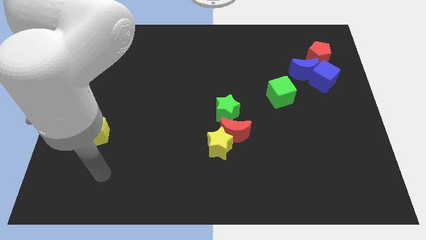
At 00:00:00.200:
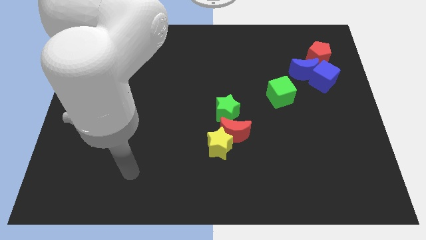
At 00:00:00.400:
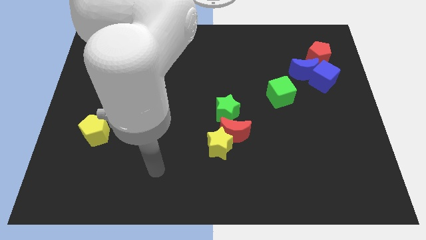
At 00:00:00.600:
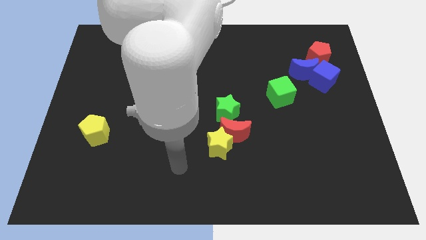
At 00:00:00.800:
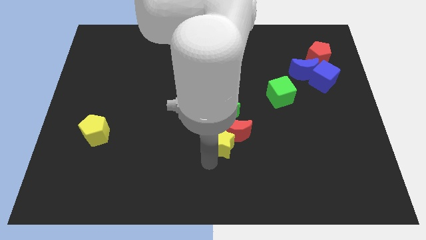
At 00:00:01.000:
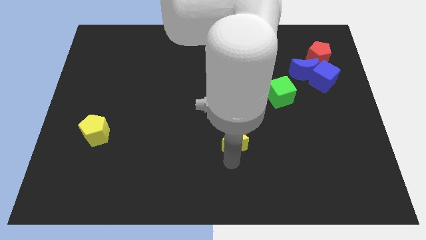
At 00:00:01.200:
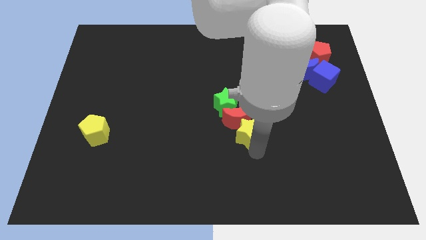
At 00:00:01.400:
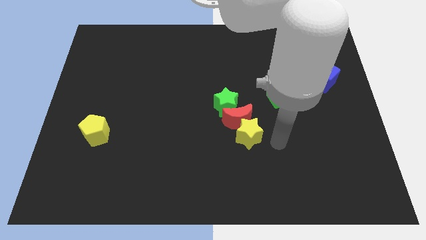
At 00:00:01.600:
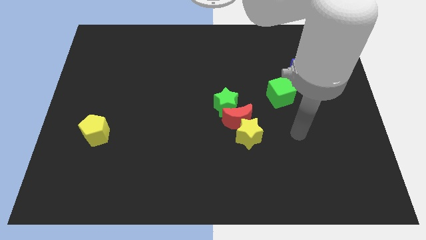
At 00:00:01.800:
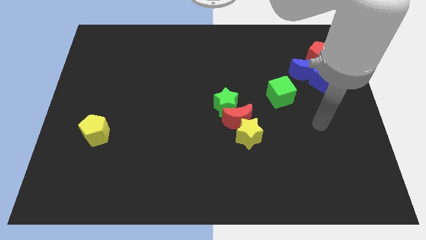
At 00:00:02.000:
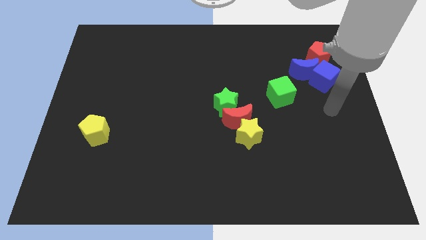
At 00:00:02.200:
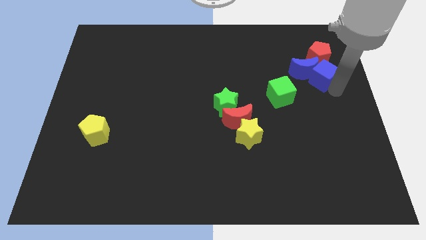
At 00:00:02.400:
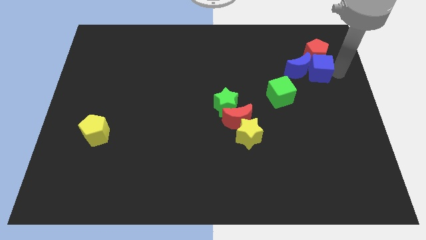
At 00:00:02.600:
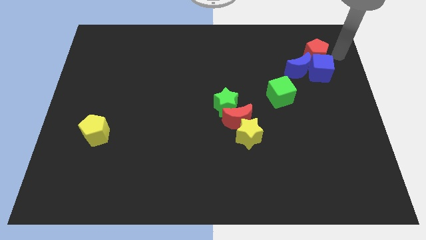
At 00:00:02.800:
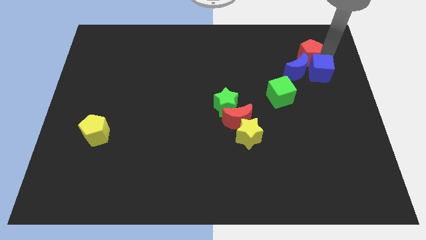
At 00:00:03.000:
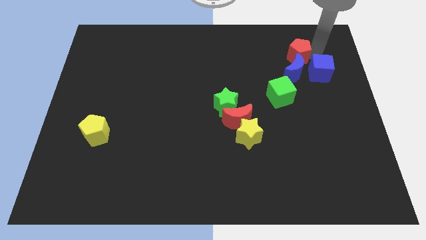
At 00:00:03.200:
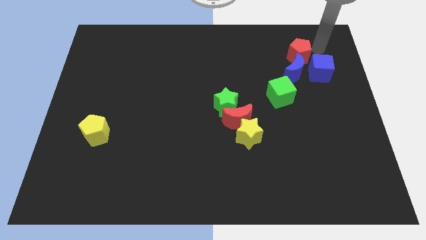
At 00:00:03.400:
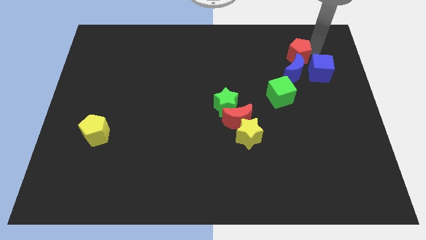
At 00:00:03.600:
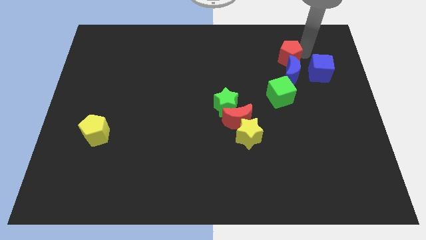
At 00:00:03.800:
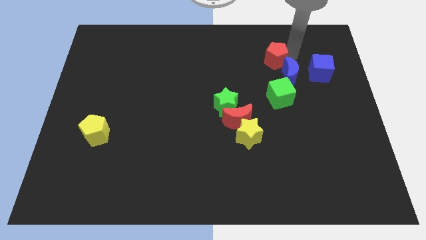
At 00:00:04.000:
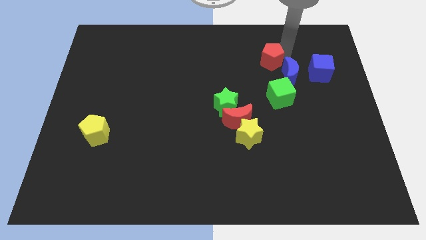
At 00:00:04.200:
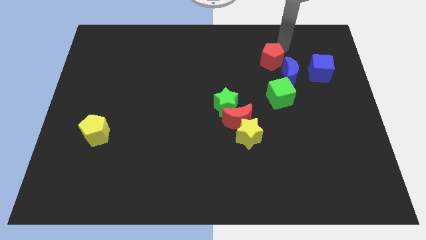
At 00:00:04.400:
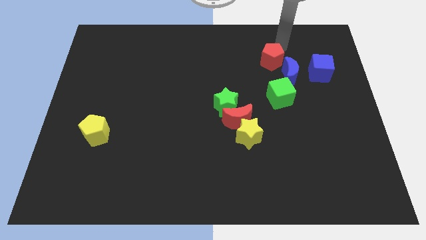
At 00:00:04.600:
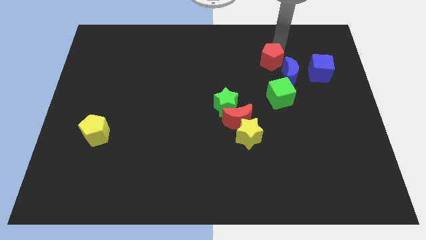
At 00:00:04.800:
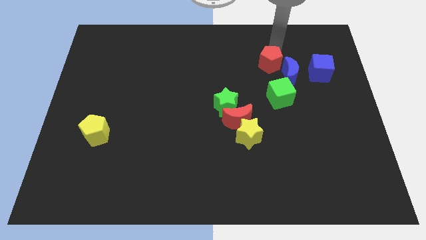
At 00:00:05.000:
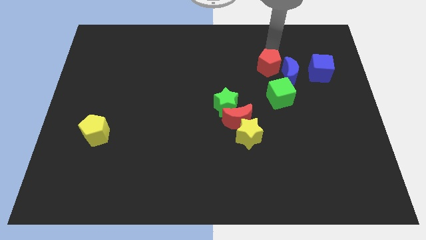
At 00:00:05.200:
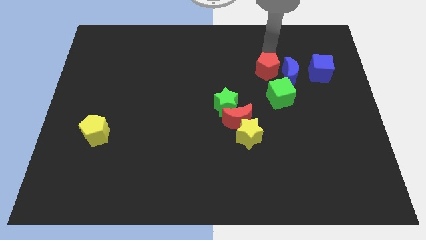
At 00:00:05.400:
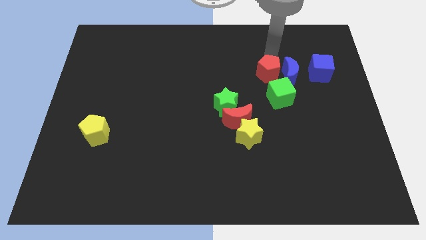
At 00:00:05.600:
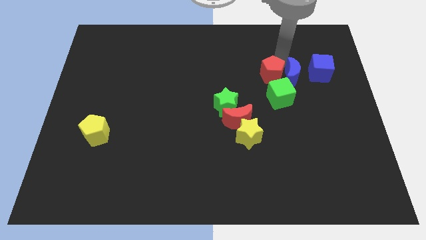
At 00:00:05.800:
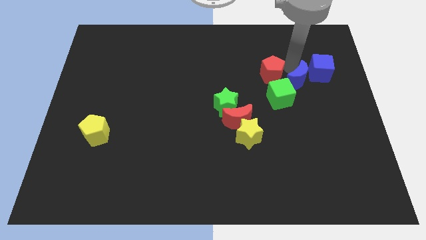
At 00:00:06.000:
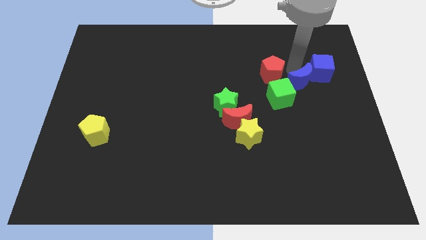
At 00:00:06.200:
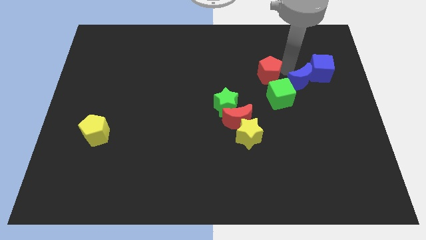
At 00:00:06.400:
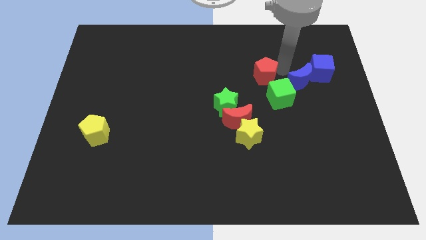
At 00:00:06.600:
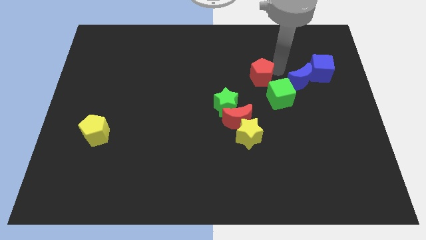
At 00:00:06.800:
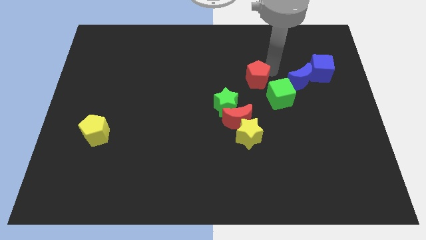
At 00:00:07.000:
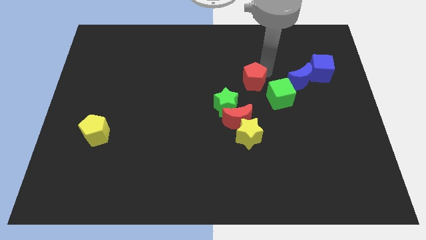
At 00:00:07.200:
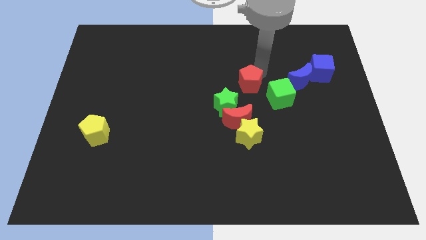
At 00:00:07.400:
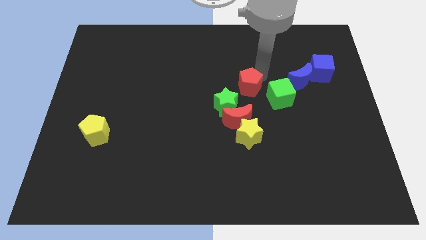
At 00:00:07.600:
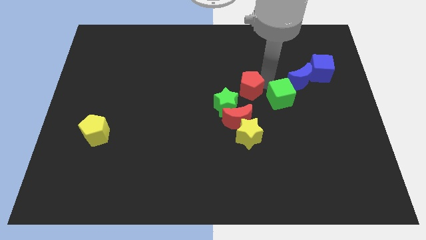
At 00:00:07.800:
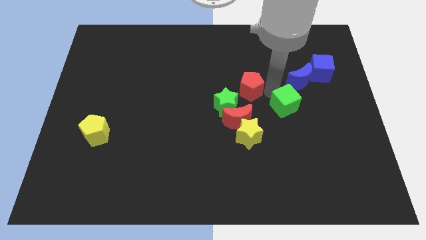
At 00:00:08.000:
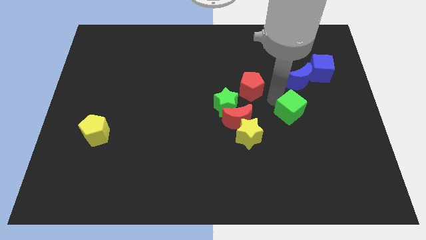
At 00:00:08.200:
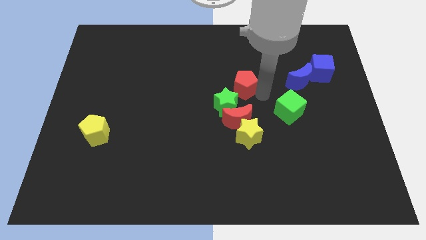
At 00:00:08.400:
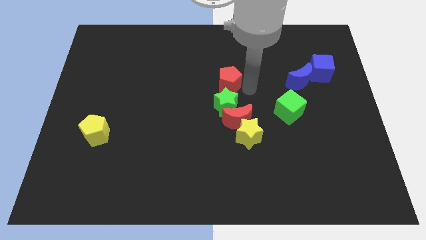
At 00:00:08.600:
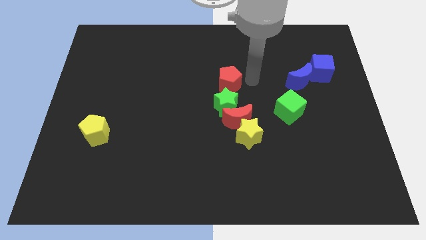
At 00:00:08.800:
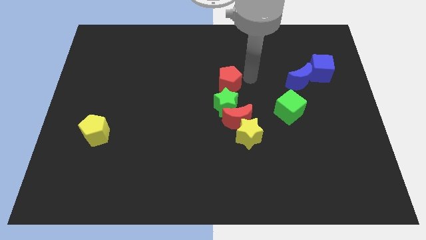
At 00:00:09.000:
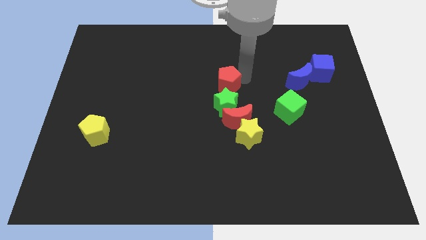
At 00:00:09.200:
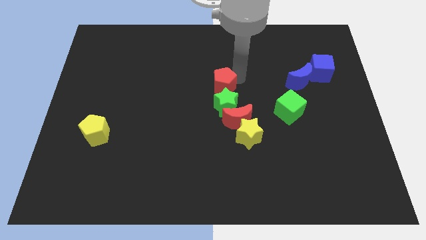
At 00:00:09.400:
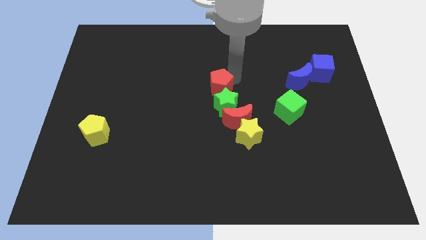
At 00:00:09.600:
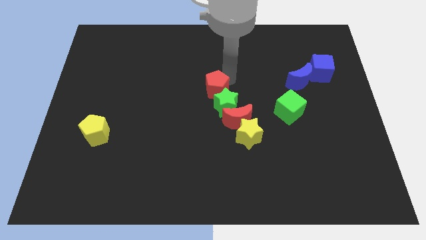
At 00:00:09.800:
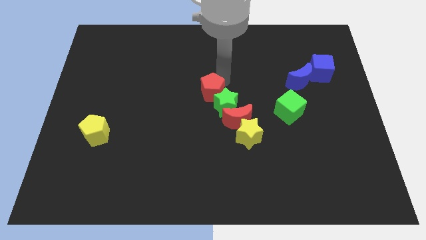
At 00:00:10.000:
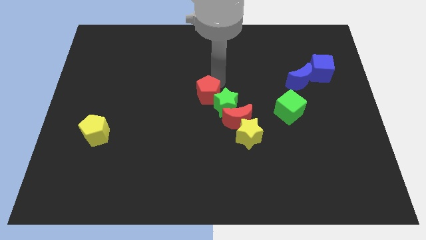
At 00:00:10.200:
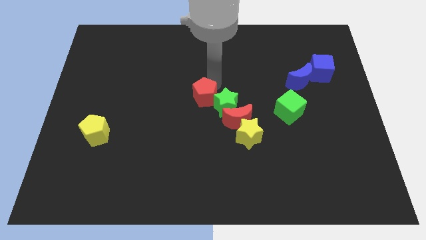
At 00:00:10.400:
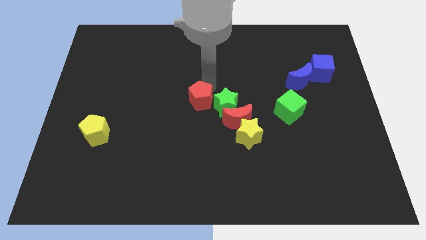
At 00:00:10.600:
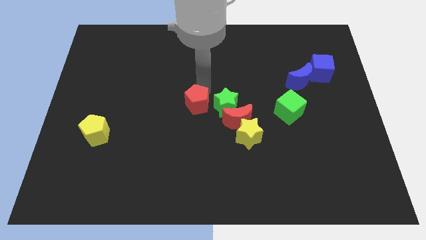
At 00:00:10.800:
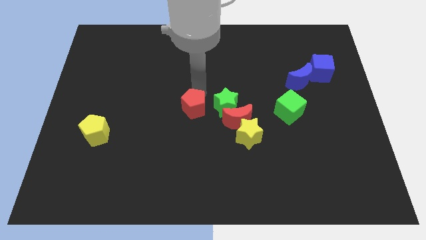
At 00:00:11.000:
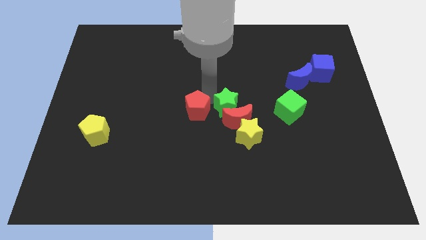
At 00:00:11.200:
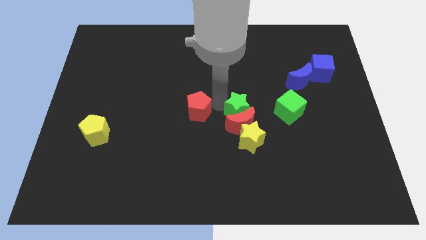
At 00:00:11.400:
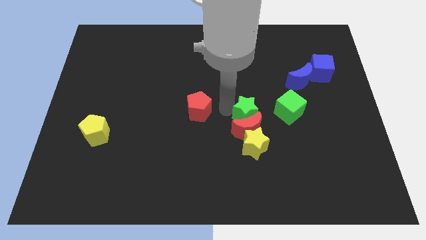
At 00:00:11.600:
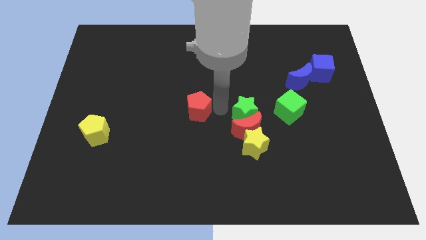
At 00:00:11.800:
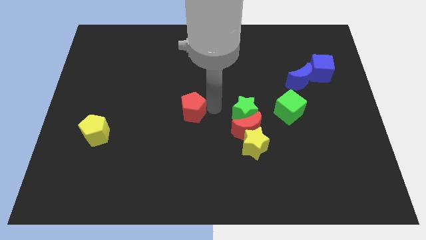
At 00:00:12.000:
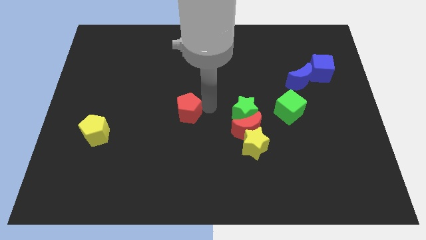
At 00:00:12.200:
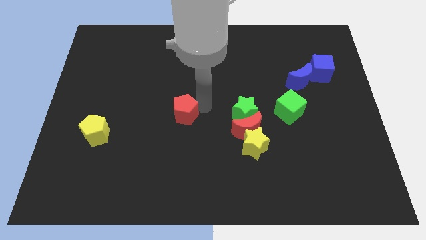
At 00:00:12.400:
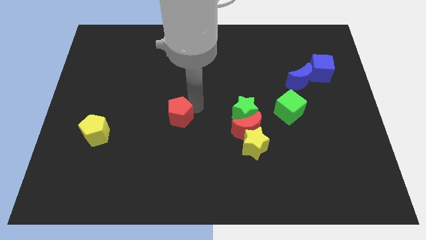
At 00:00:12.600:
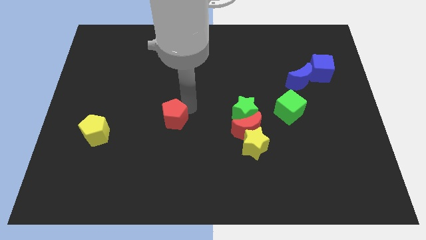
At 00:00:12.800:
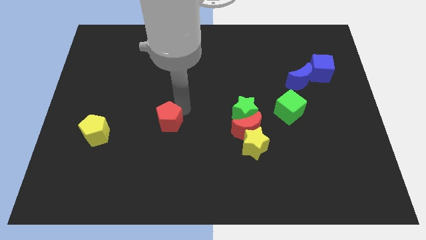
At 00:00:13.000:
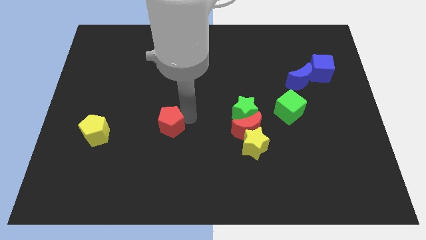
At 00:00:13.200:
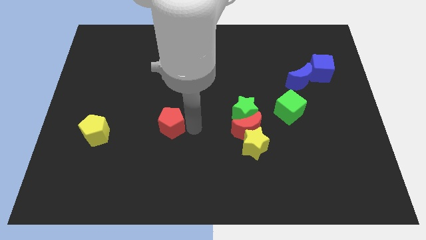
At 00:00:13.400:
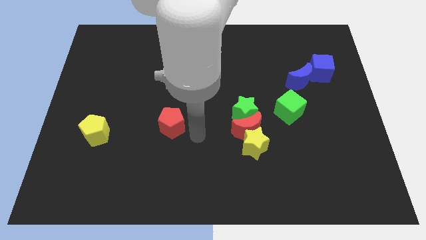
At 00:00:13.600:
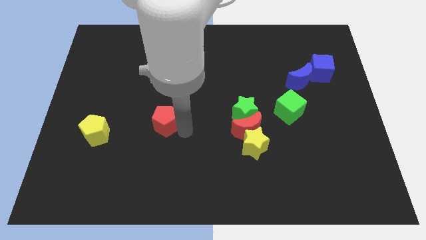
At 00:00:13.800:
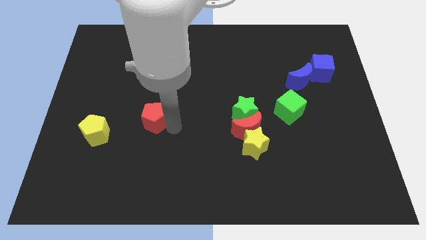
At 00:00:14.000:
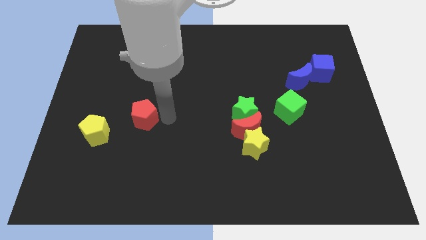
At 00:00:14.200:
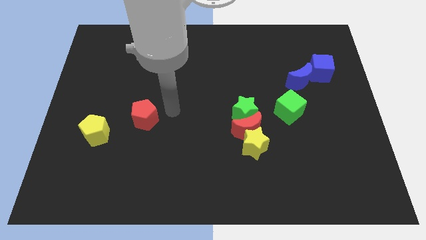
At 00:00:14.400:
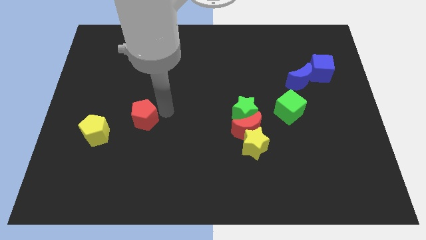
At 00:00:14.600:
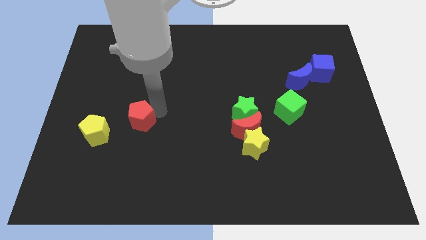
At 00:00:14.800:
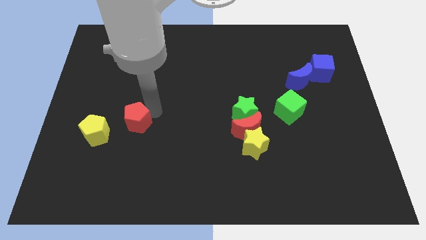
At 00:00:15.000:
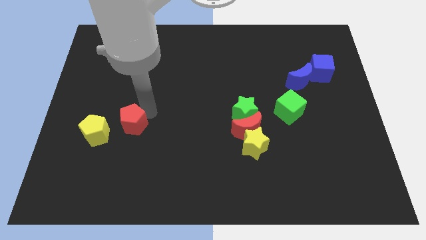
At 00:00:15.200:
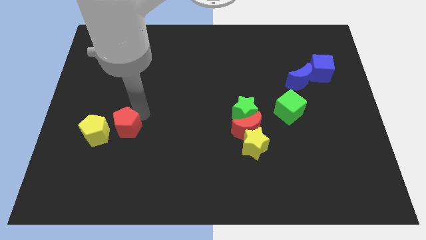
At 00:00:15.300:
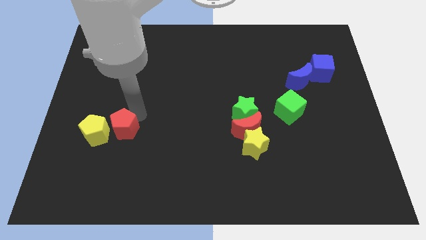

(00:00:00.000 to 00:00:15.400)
slide the red pentagon close to the yellow pentagon
